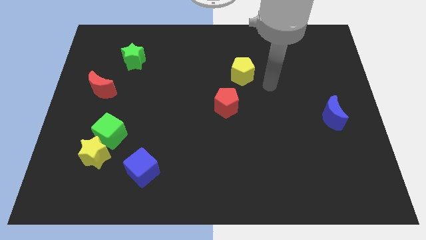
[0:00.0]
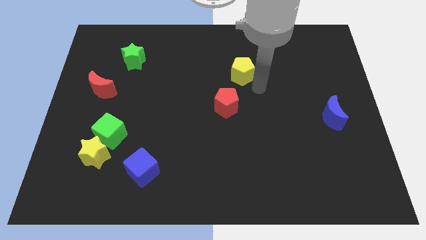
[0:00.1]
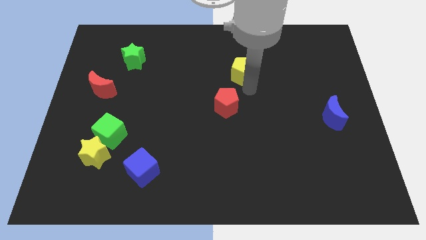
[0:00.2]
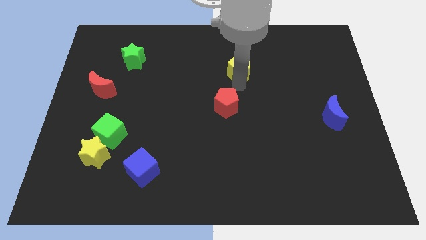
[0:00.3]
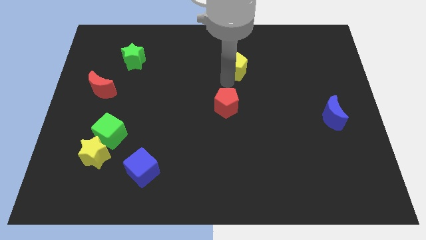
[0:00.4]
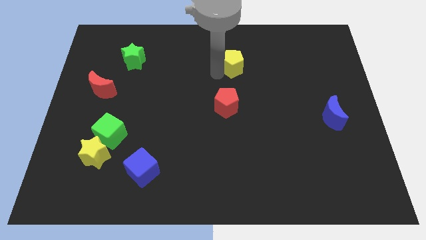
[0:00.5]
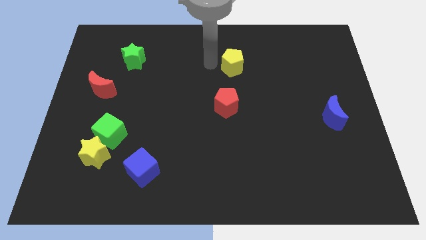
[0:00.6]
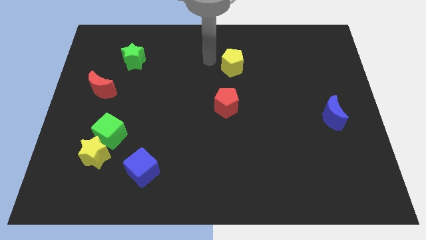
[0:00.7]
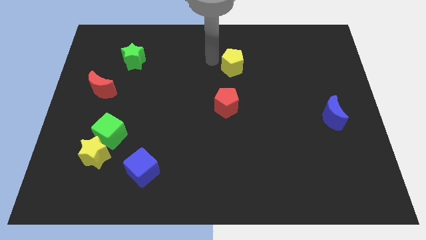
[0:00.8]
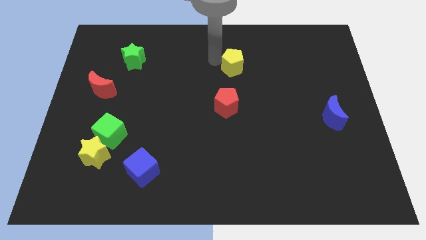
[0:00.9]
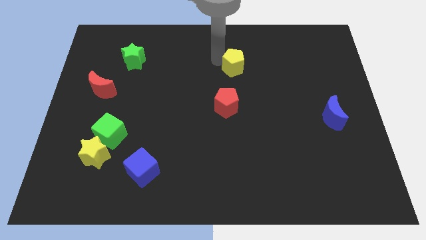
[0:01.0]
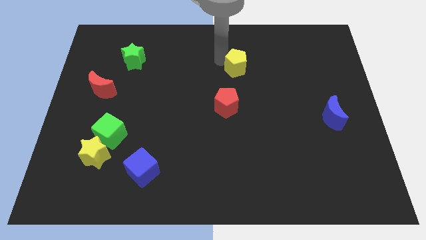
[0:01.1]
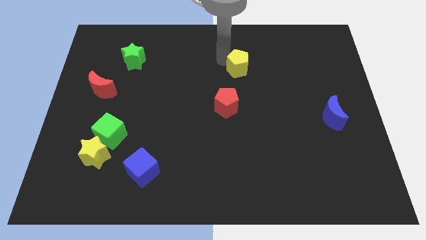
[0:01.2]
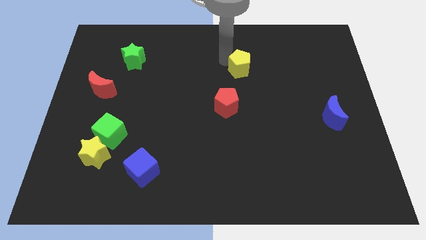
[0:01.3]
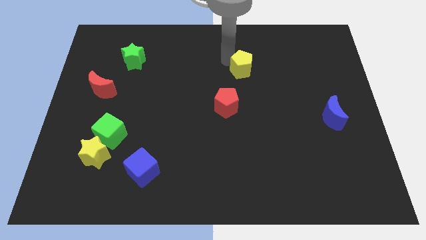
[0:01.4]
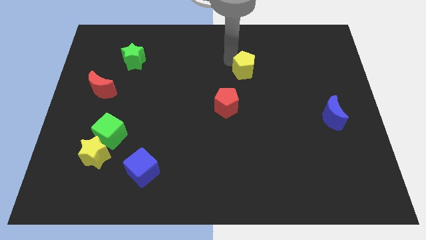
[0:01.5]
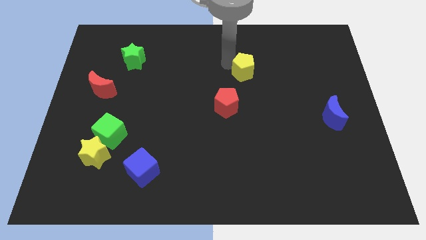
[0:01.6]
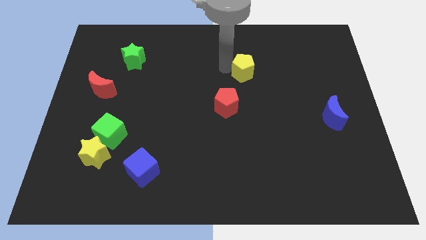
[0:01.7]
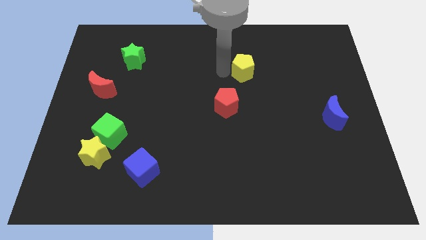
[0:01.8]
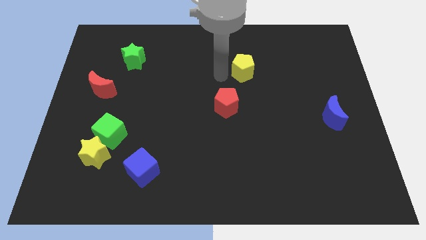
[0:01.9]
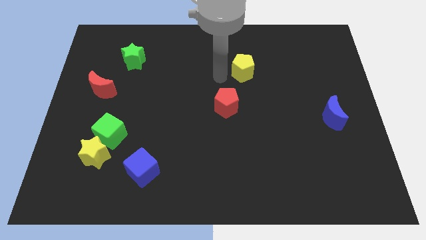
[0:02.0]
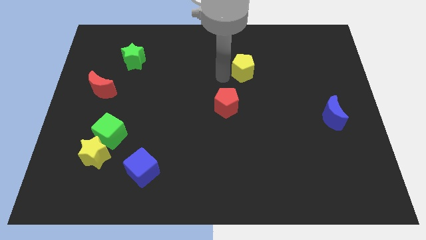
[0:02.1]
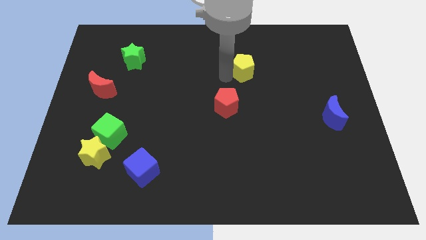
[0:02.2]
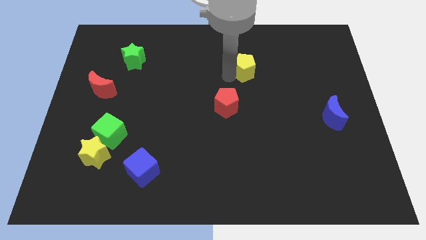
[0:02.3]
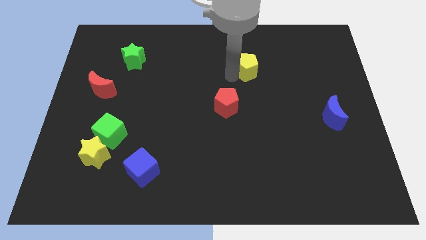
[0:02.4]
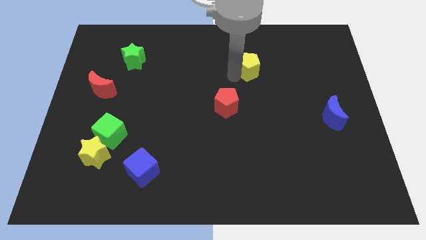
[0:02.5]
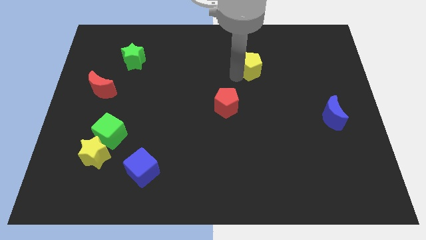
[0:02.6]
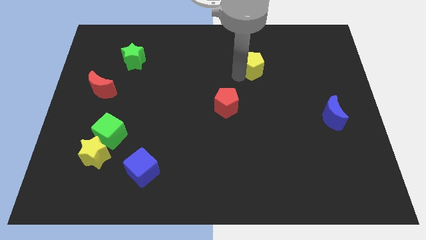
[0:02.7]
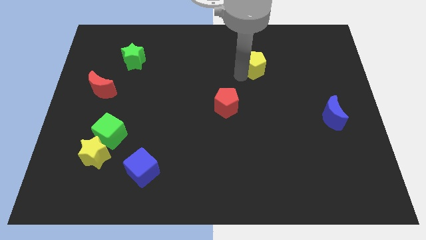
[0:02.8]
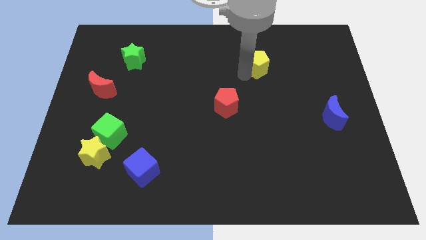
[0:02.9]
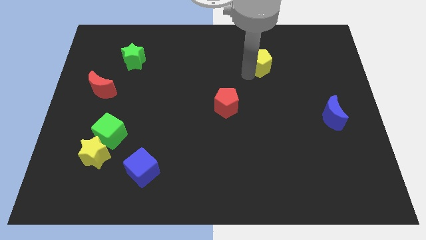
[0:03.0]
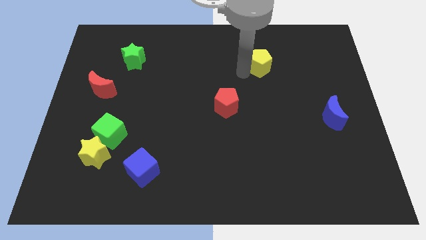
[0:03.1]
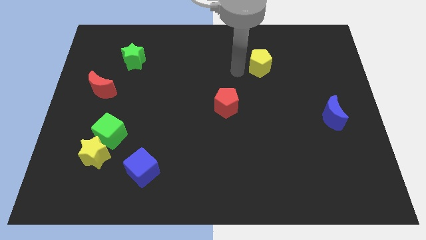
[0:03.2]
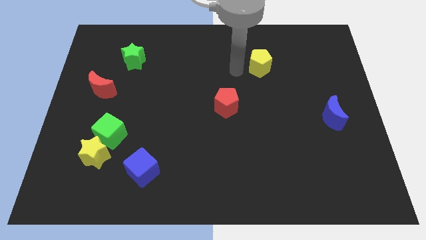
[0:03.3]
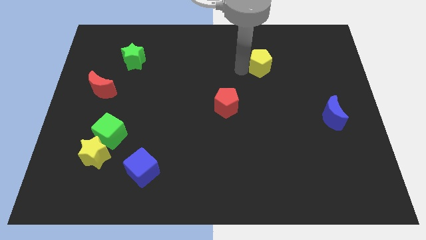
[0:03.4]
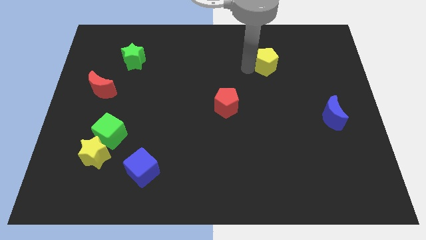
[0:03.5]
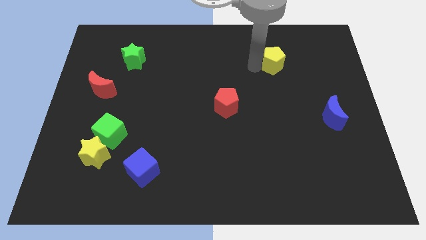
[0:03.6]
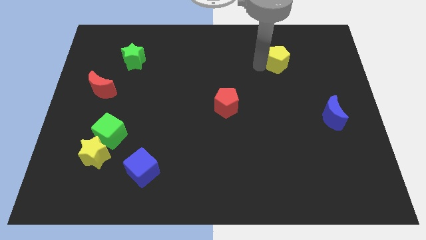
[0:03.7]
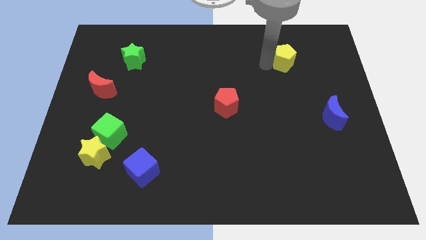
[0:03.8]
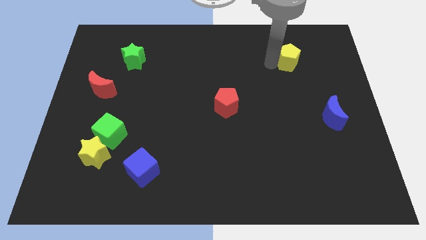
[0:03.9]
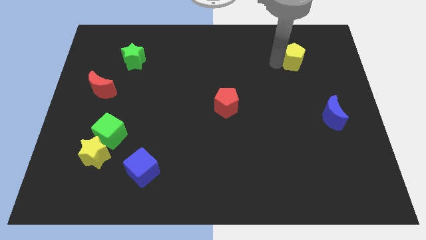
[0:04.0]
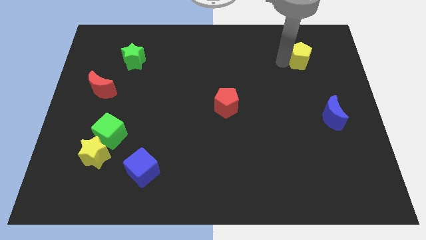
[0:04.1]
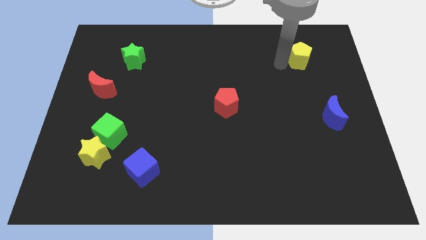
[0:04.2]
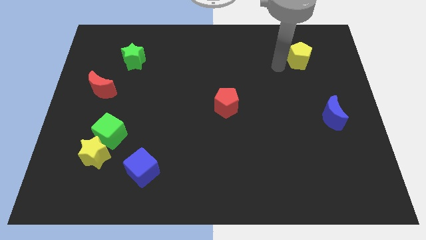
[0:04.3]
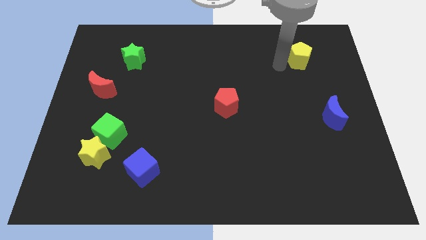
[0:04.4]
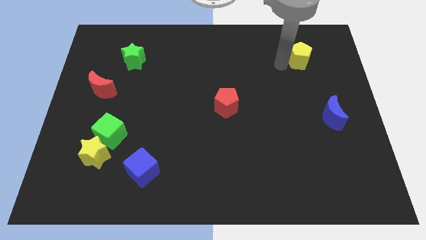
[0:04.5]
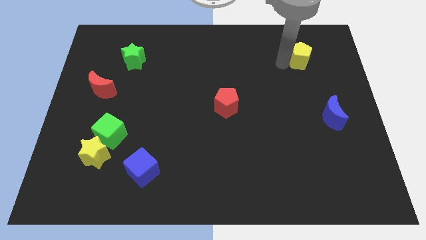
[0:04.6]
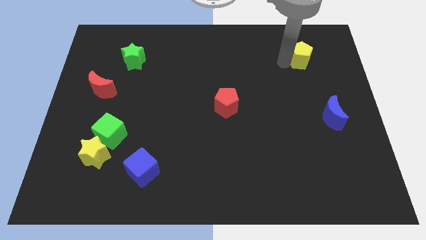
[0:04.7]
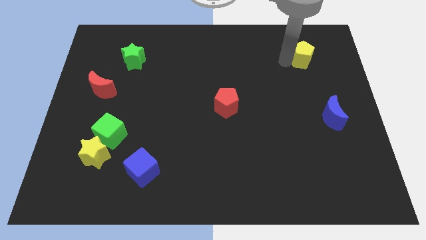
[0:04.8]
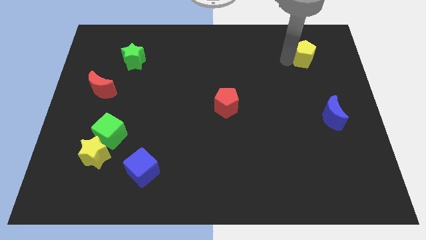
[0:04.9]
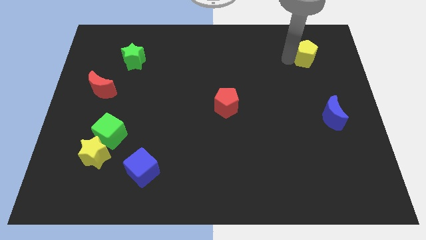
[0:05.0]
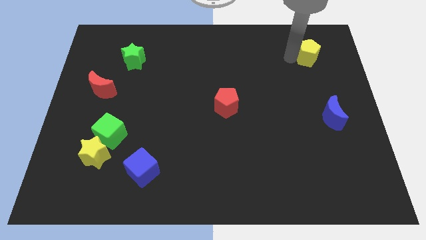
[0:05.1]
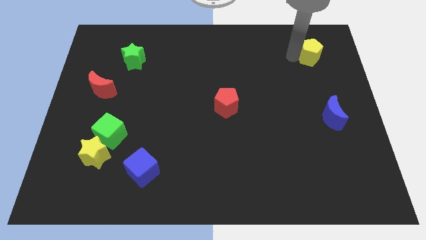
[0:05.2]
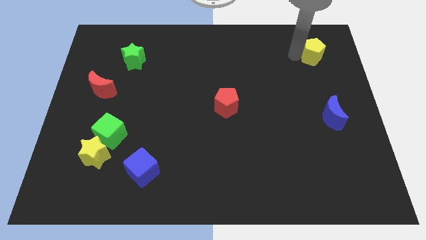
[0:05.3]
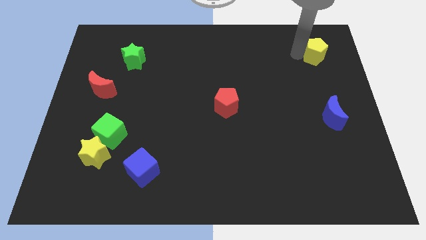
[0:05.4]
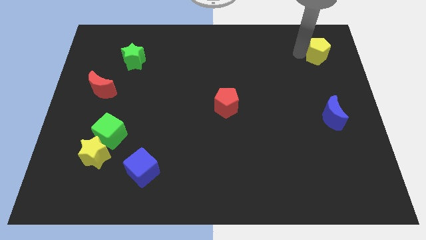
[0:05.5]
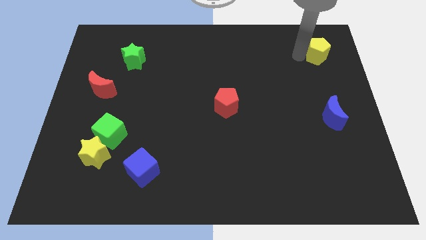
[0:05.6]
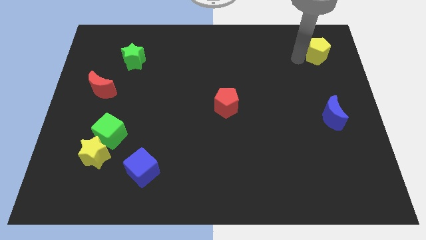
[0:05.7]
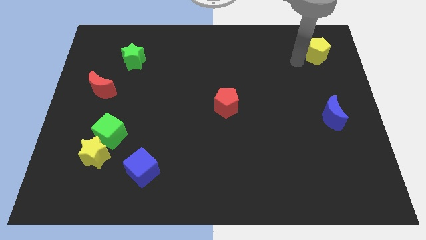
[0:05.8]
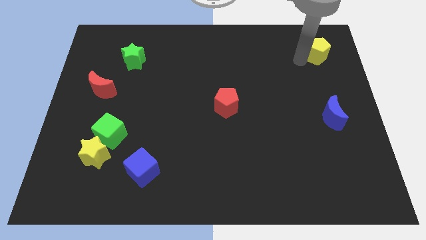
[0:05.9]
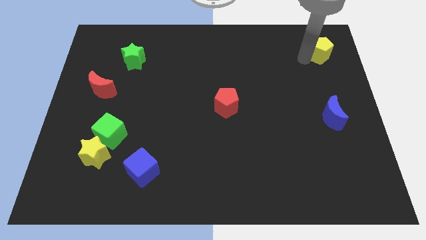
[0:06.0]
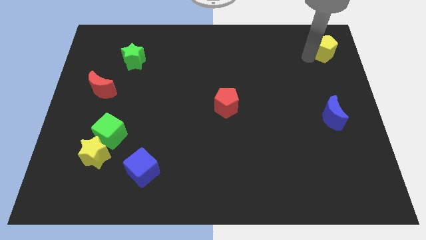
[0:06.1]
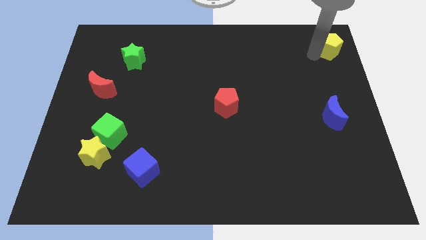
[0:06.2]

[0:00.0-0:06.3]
move the yellow pentagon to the top right
